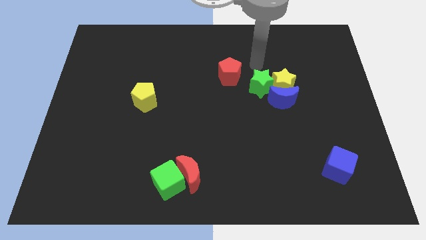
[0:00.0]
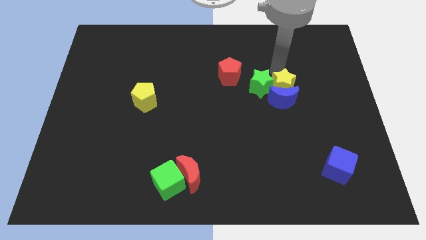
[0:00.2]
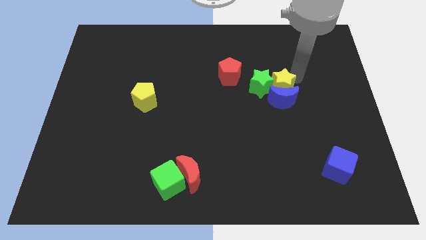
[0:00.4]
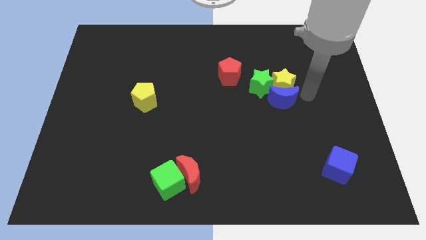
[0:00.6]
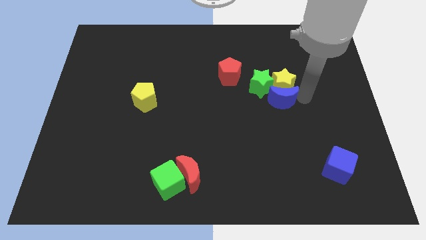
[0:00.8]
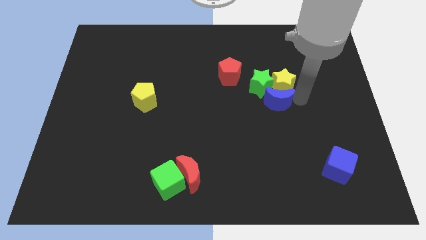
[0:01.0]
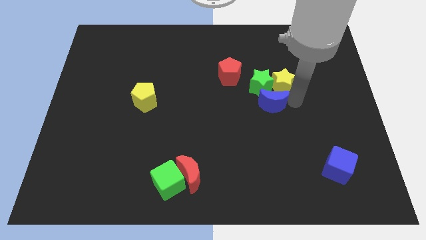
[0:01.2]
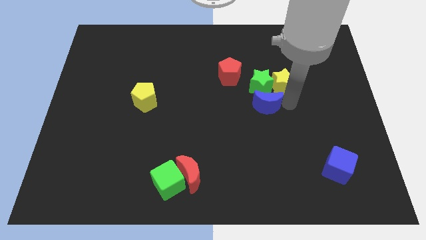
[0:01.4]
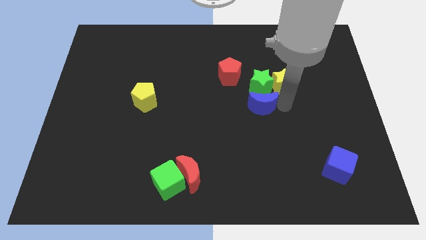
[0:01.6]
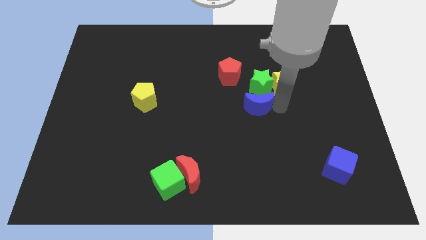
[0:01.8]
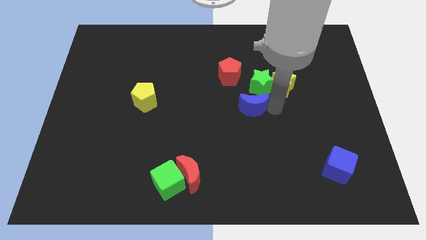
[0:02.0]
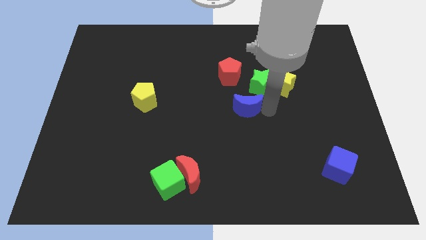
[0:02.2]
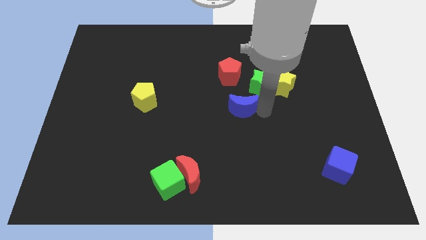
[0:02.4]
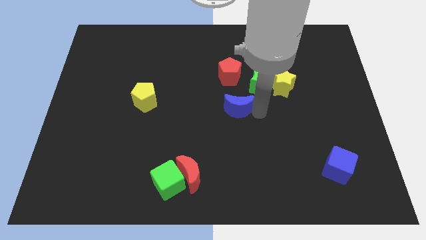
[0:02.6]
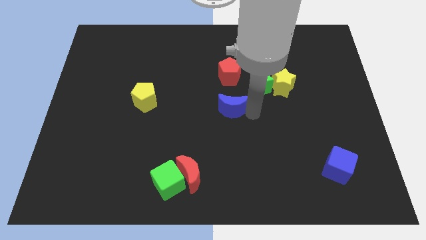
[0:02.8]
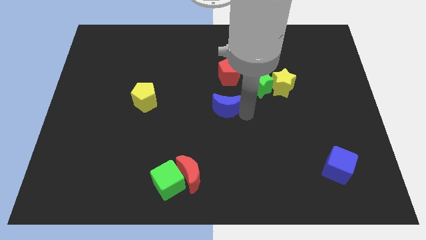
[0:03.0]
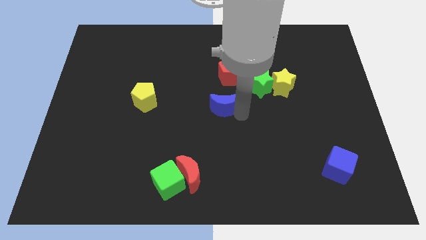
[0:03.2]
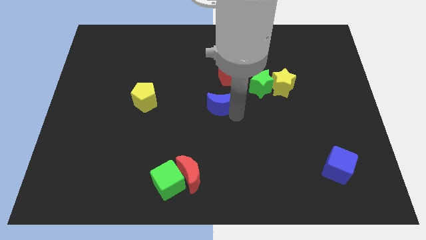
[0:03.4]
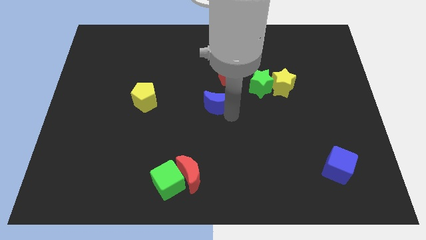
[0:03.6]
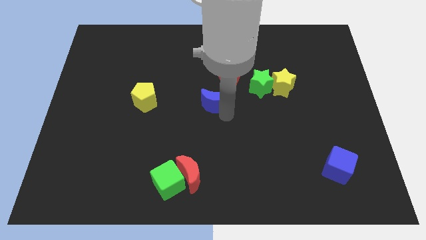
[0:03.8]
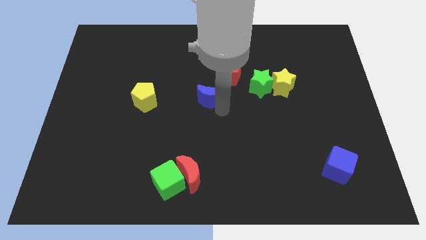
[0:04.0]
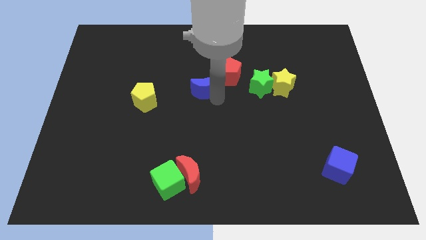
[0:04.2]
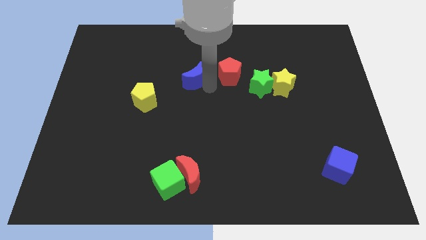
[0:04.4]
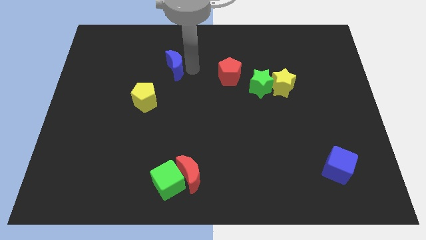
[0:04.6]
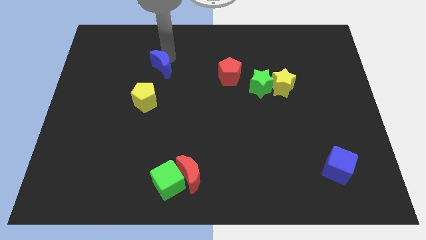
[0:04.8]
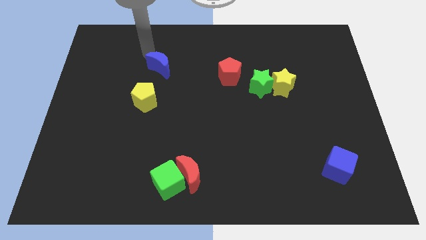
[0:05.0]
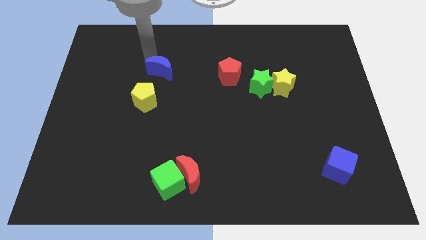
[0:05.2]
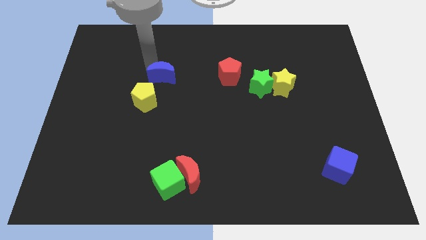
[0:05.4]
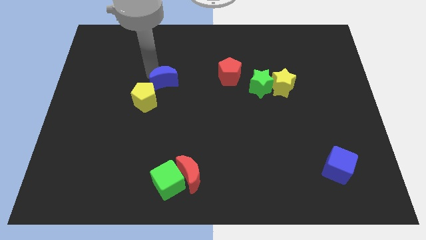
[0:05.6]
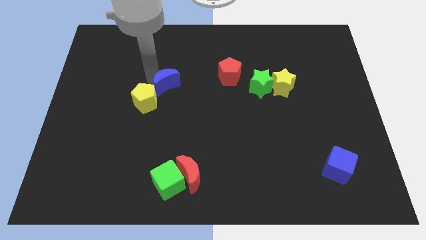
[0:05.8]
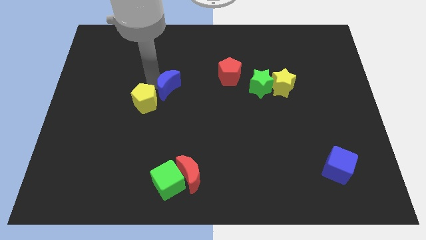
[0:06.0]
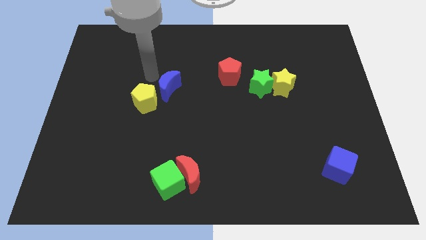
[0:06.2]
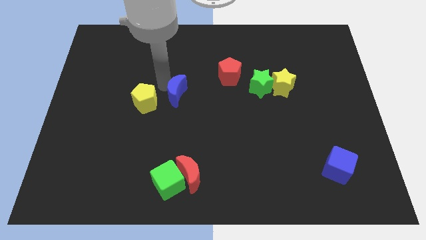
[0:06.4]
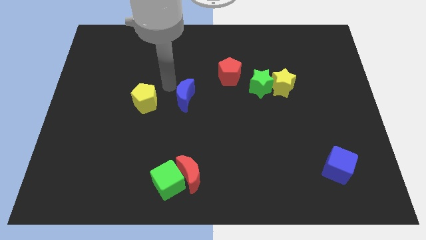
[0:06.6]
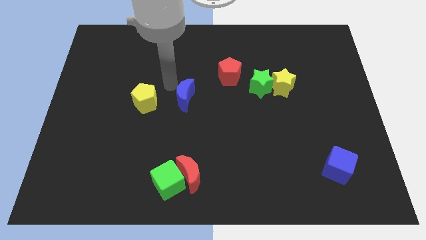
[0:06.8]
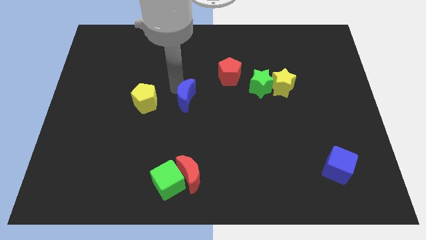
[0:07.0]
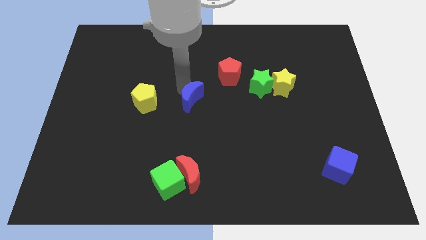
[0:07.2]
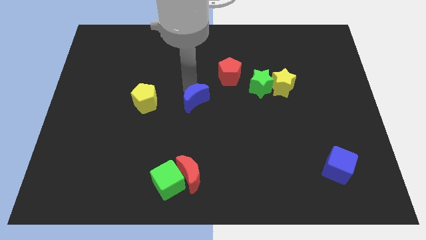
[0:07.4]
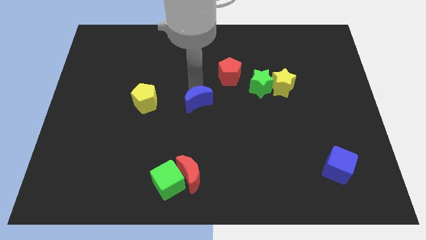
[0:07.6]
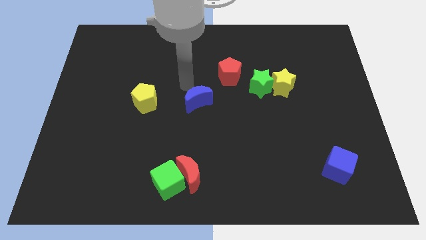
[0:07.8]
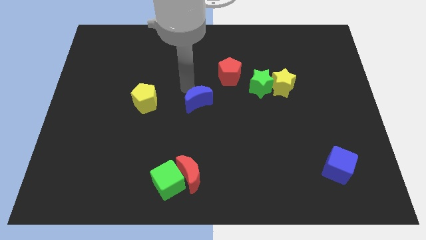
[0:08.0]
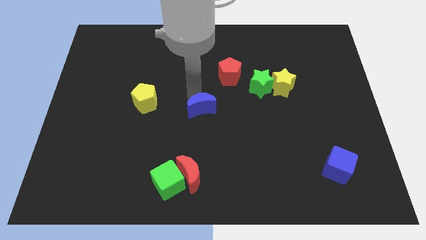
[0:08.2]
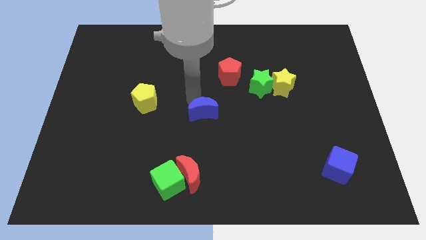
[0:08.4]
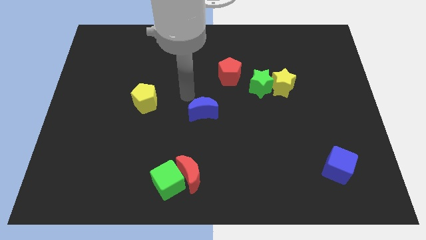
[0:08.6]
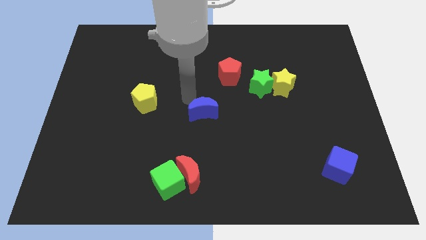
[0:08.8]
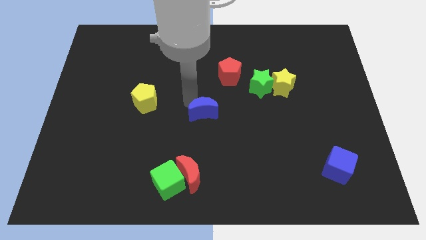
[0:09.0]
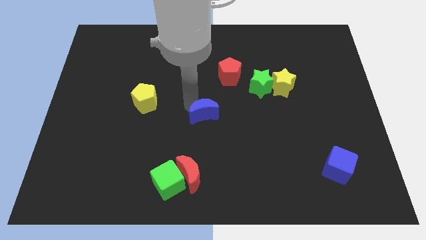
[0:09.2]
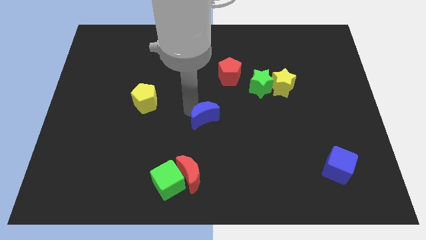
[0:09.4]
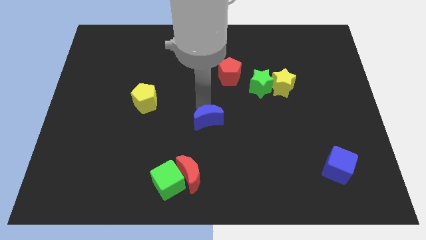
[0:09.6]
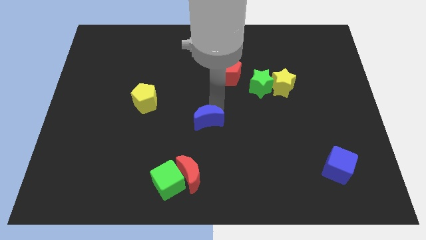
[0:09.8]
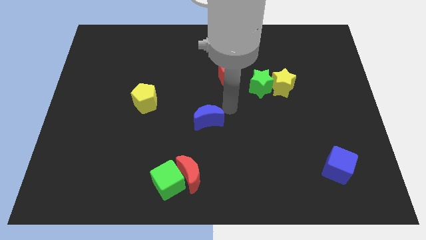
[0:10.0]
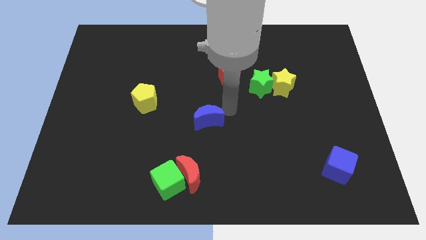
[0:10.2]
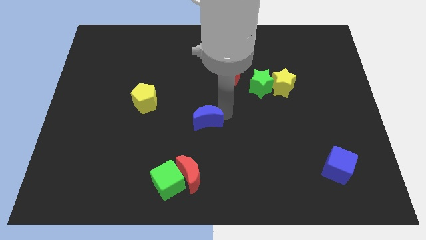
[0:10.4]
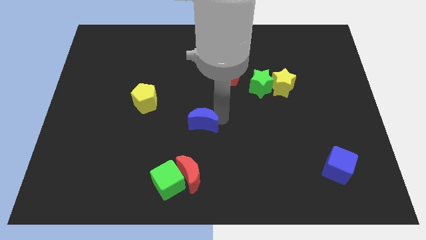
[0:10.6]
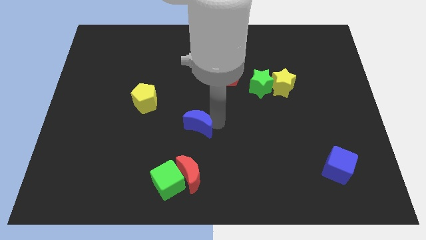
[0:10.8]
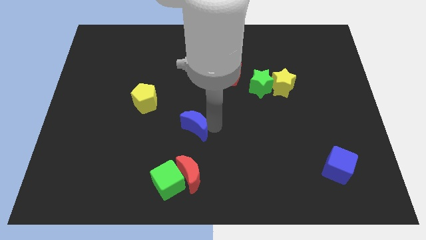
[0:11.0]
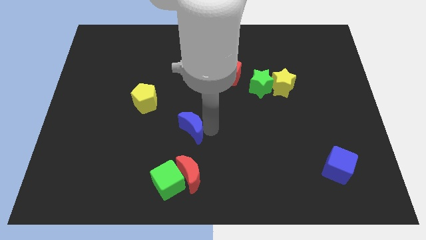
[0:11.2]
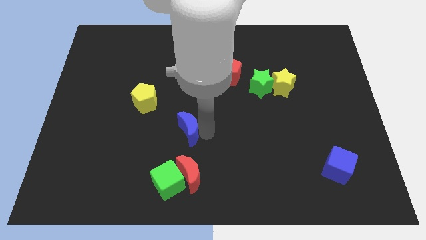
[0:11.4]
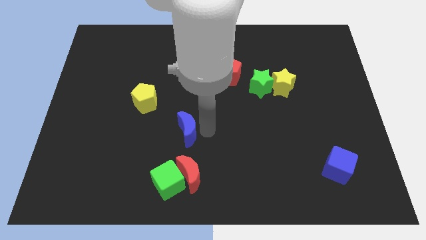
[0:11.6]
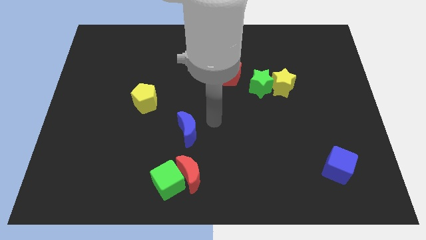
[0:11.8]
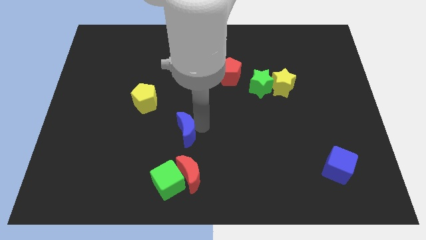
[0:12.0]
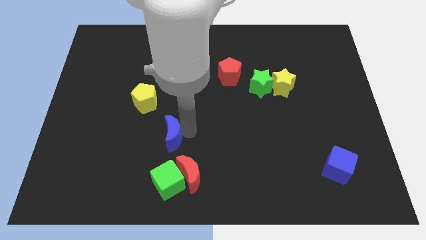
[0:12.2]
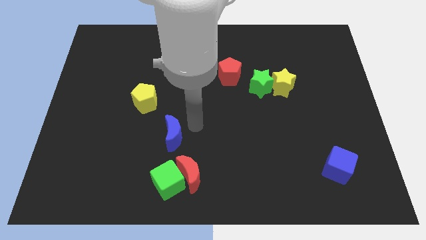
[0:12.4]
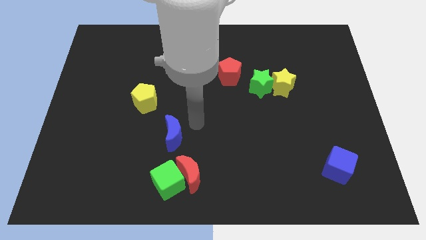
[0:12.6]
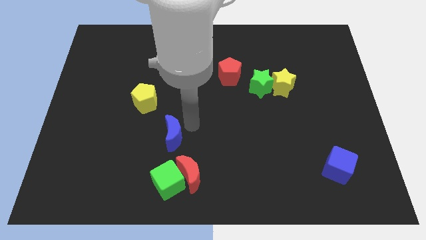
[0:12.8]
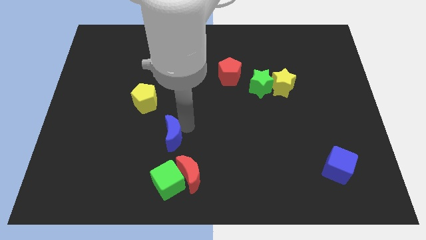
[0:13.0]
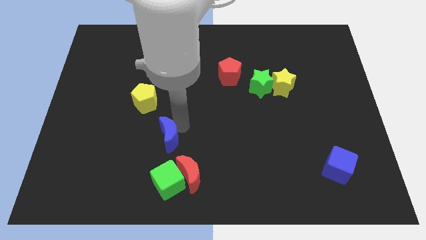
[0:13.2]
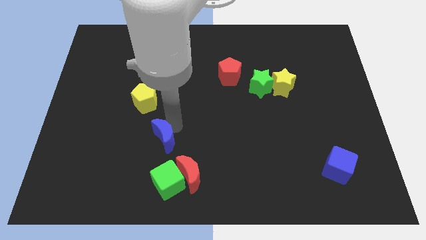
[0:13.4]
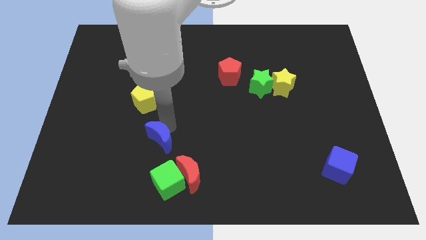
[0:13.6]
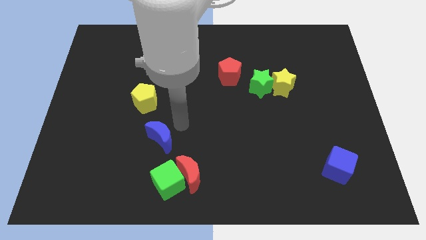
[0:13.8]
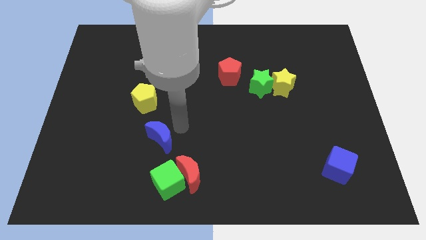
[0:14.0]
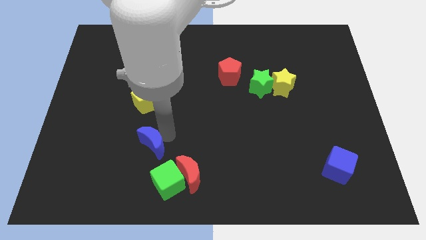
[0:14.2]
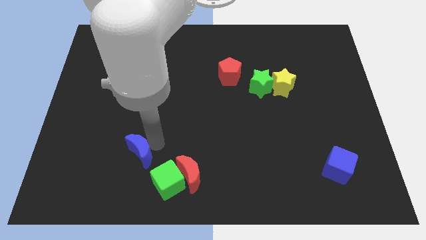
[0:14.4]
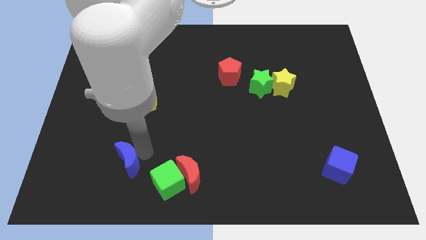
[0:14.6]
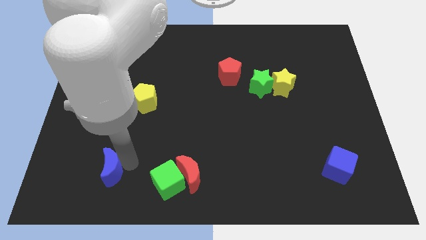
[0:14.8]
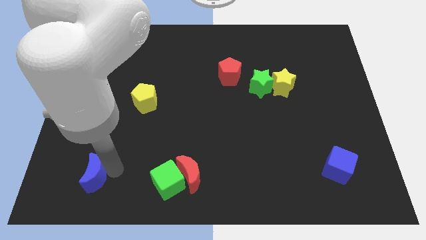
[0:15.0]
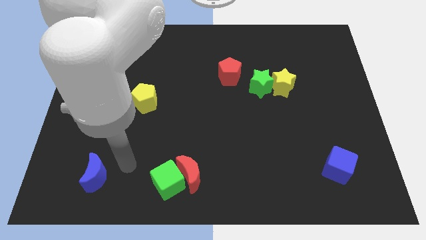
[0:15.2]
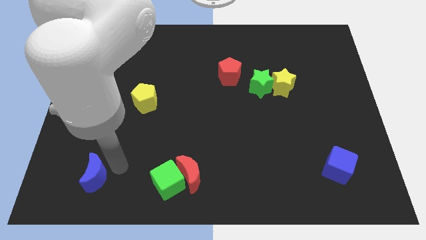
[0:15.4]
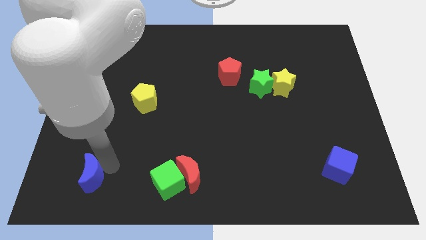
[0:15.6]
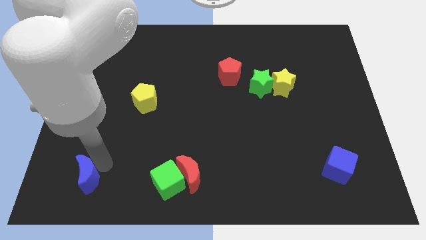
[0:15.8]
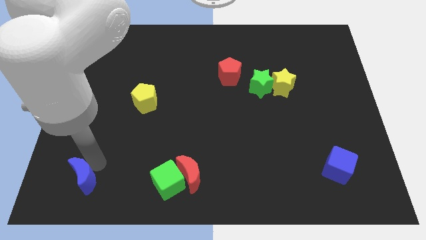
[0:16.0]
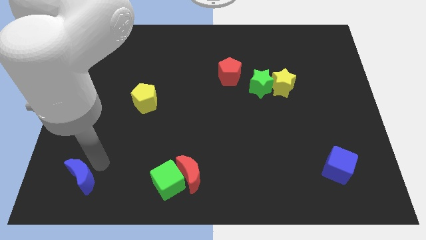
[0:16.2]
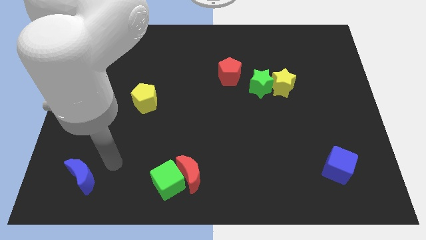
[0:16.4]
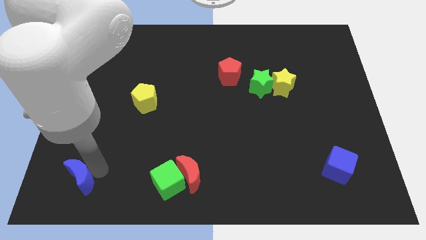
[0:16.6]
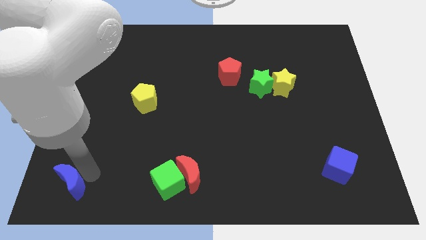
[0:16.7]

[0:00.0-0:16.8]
put the blue moon to the lower left corner
